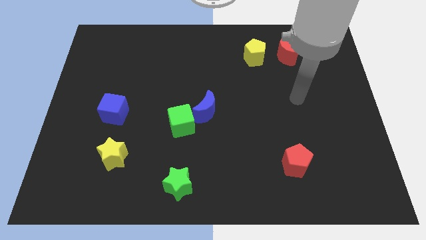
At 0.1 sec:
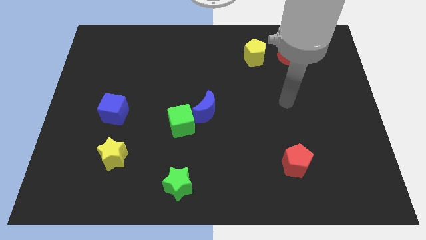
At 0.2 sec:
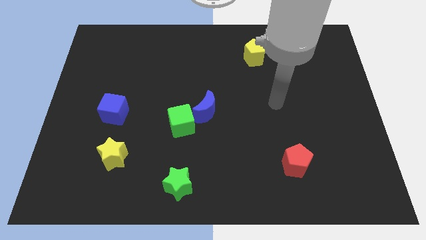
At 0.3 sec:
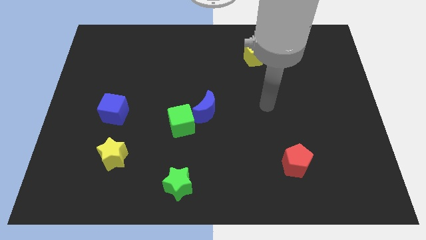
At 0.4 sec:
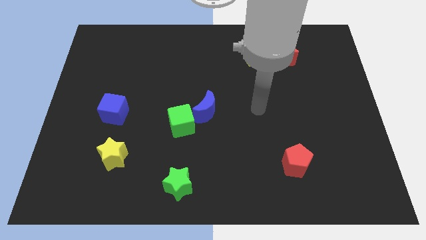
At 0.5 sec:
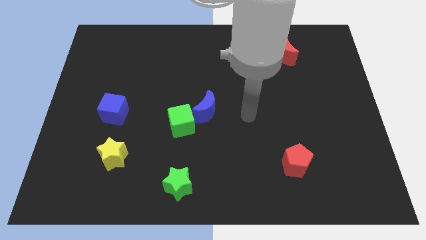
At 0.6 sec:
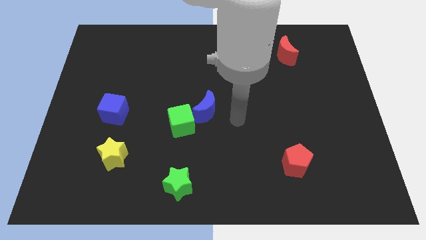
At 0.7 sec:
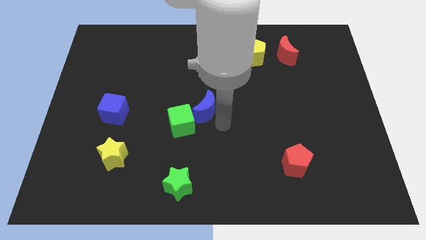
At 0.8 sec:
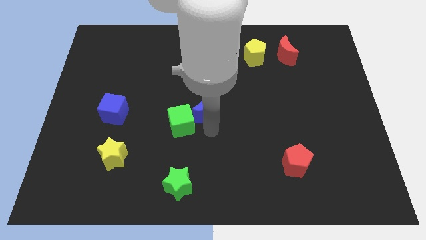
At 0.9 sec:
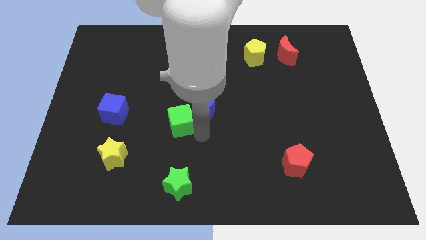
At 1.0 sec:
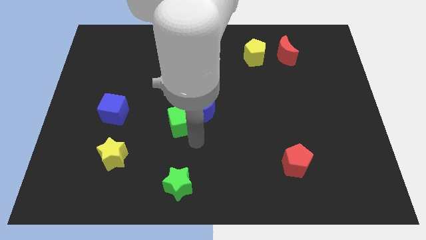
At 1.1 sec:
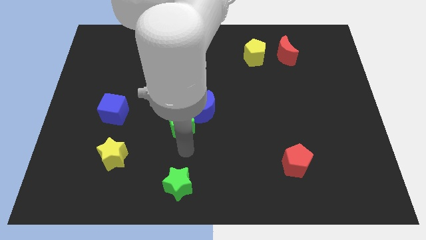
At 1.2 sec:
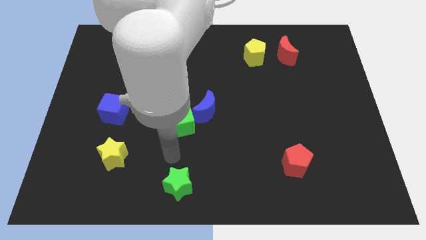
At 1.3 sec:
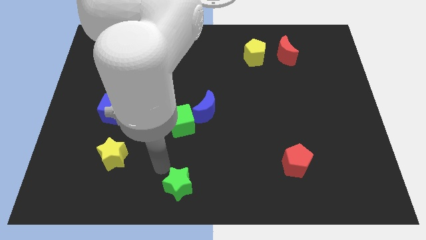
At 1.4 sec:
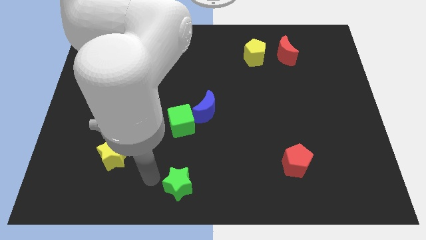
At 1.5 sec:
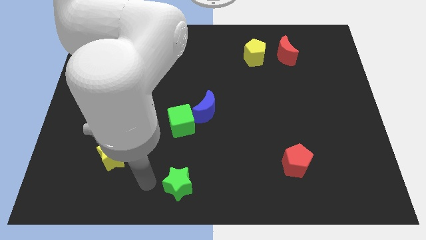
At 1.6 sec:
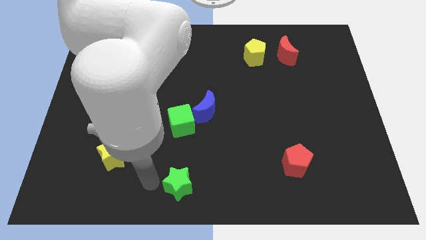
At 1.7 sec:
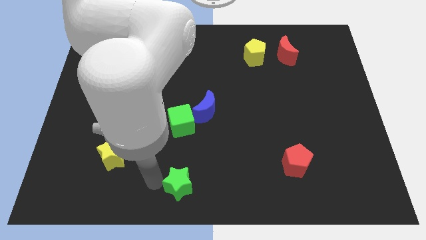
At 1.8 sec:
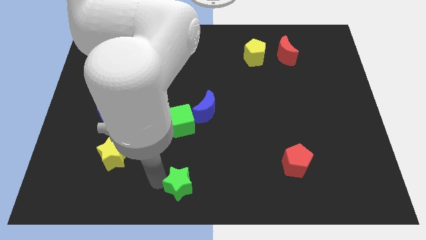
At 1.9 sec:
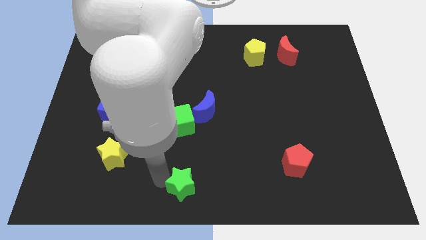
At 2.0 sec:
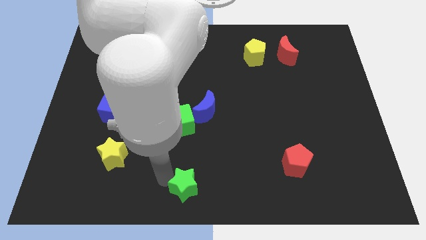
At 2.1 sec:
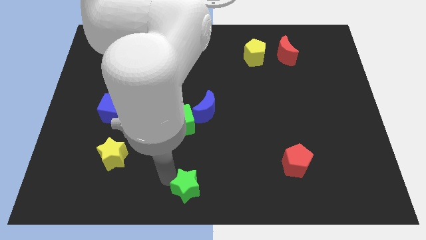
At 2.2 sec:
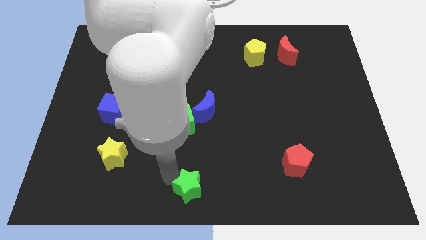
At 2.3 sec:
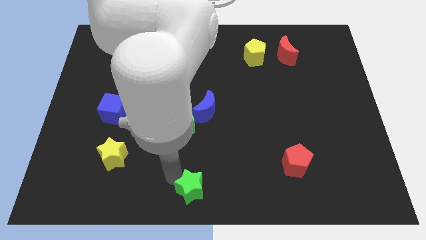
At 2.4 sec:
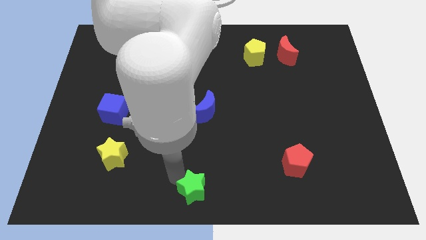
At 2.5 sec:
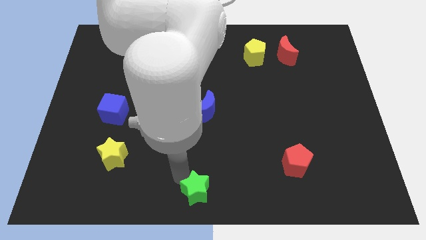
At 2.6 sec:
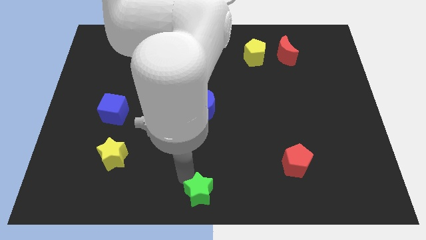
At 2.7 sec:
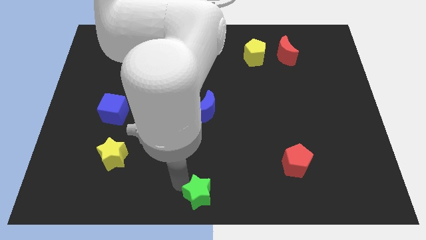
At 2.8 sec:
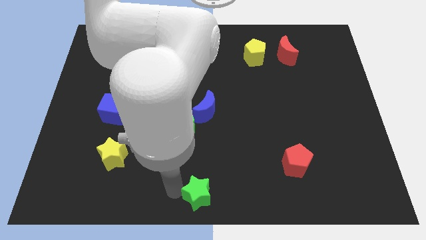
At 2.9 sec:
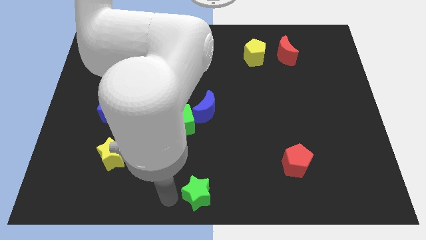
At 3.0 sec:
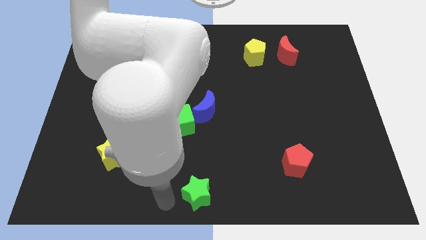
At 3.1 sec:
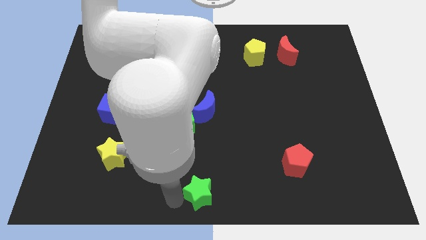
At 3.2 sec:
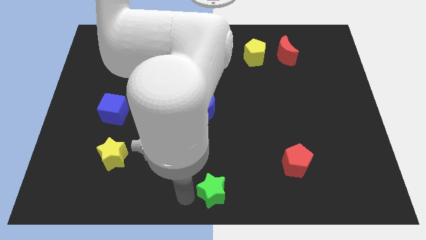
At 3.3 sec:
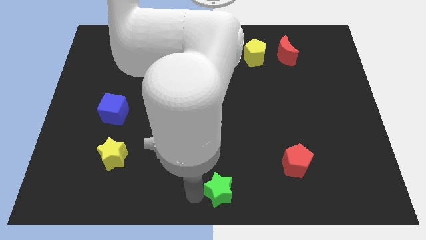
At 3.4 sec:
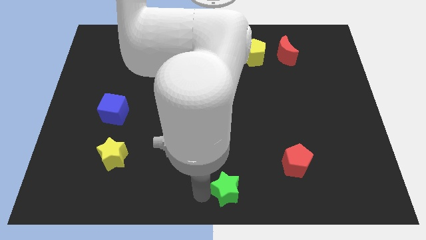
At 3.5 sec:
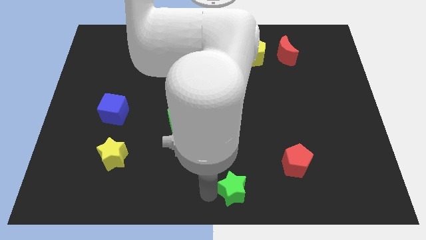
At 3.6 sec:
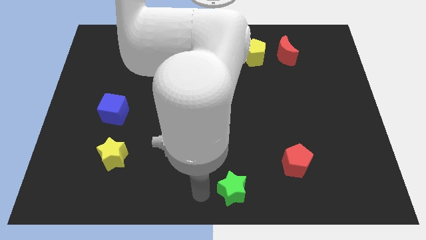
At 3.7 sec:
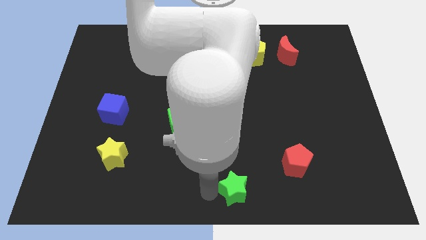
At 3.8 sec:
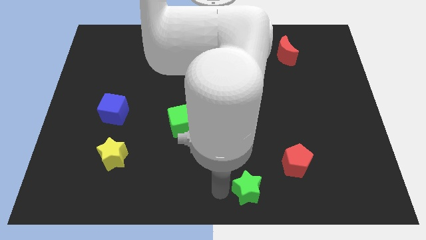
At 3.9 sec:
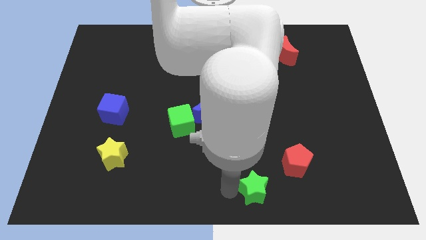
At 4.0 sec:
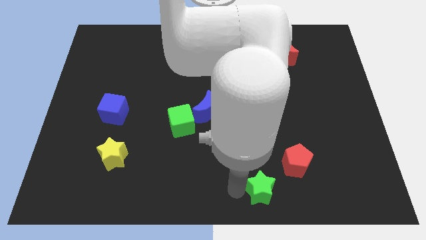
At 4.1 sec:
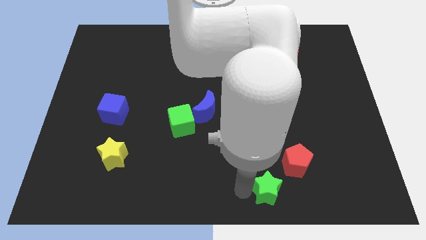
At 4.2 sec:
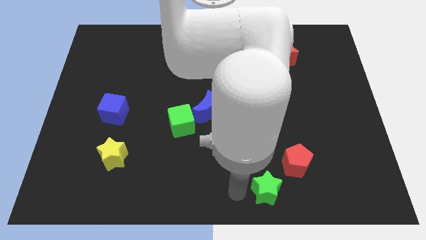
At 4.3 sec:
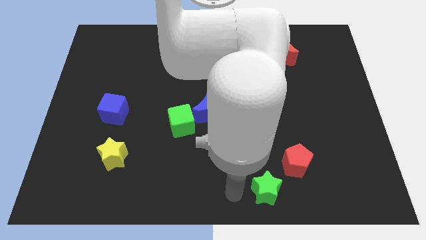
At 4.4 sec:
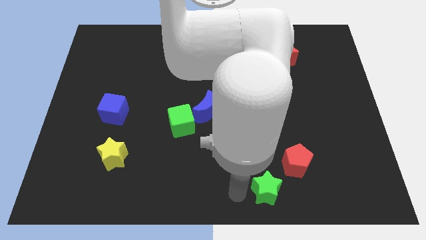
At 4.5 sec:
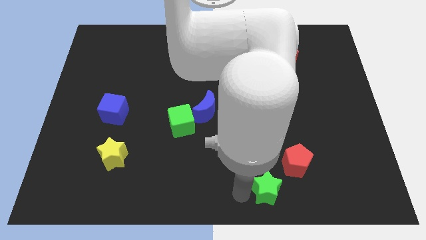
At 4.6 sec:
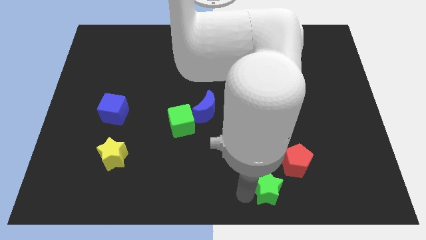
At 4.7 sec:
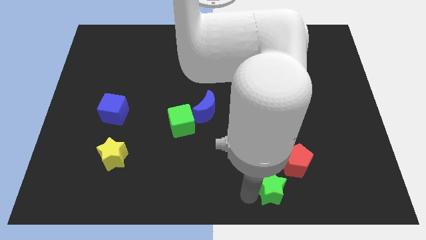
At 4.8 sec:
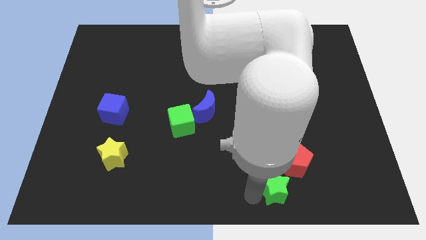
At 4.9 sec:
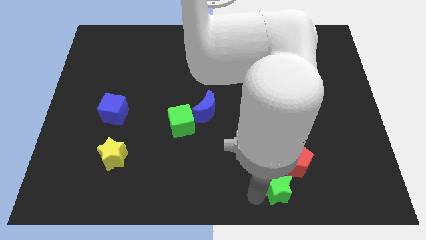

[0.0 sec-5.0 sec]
push the green star right

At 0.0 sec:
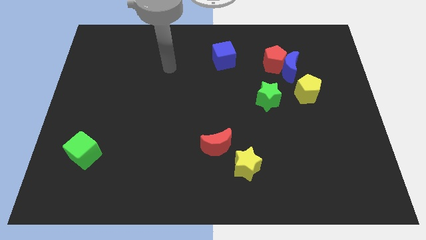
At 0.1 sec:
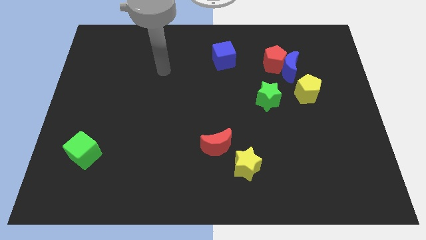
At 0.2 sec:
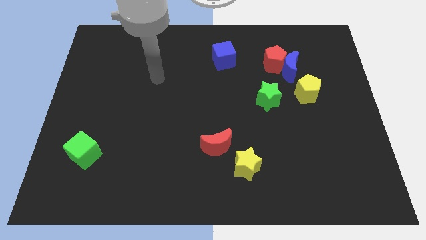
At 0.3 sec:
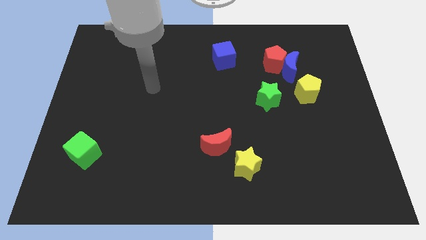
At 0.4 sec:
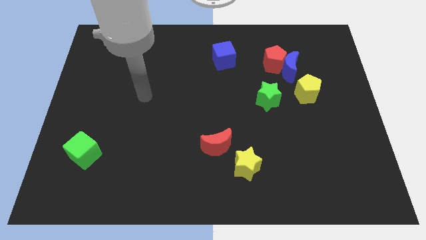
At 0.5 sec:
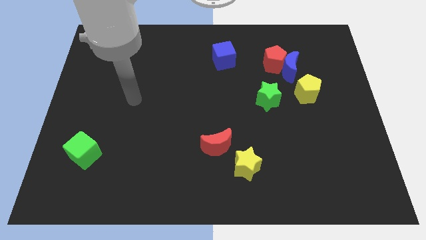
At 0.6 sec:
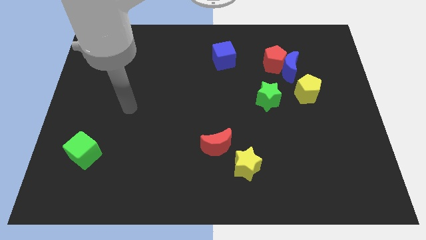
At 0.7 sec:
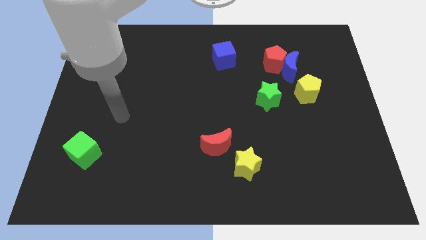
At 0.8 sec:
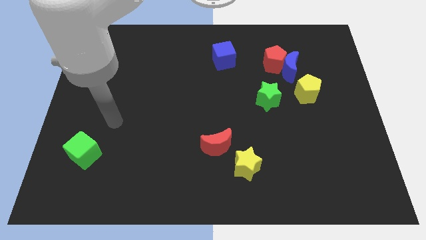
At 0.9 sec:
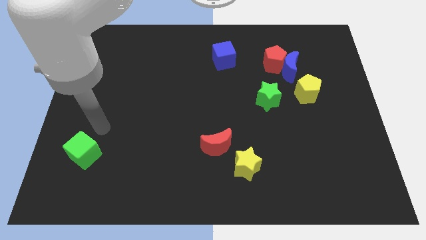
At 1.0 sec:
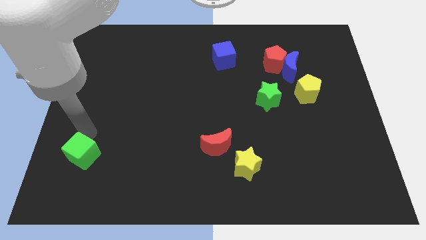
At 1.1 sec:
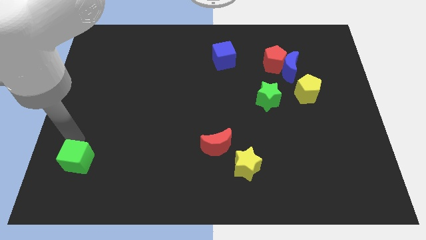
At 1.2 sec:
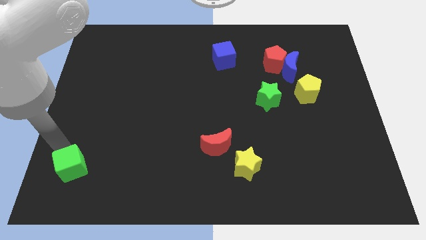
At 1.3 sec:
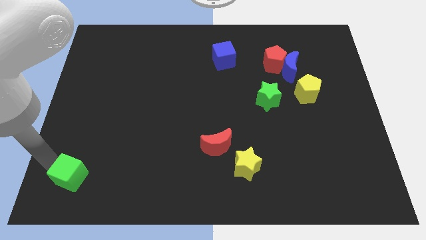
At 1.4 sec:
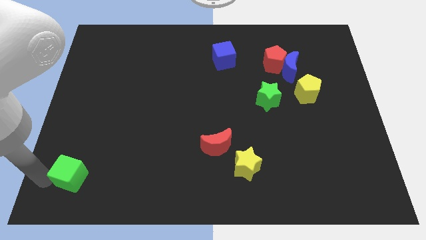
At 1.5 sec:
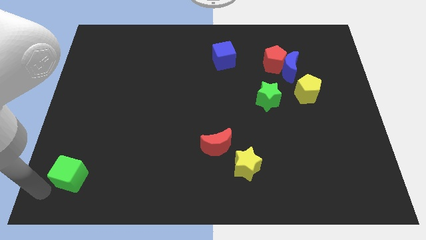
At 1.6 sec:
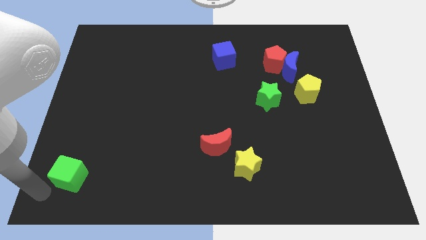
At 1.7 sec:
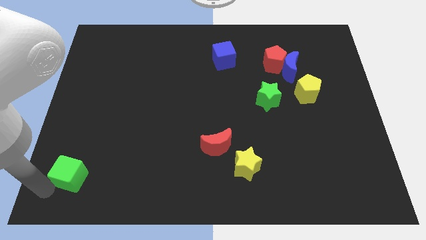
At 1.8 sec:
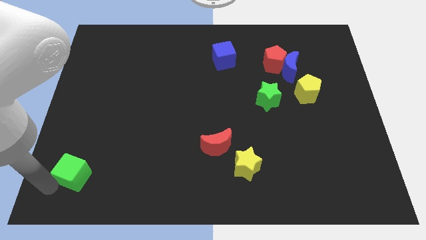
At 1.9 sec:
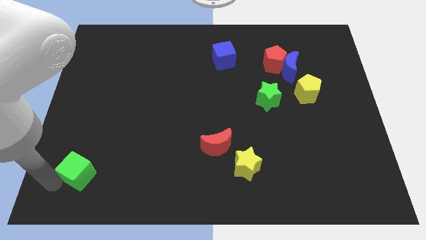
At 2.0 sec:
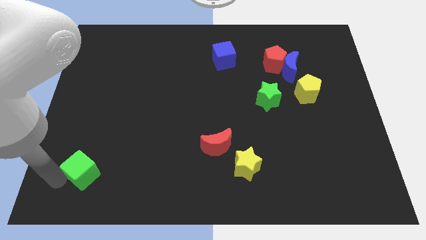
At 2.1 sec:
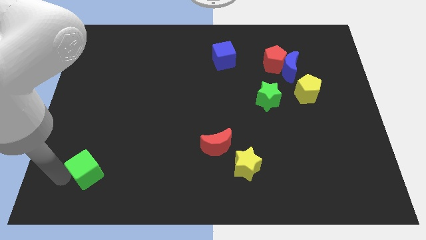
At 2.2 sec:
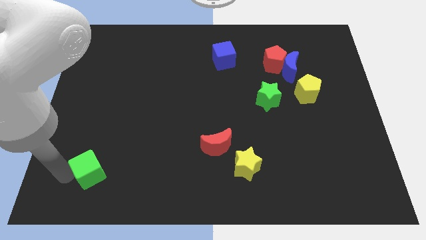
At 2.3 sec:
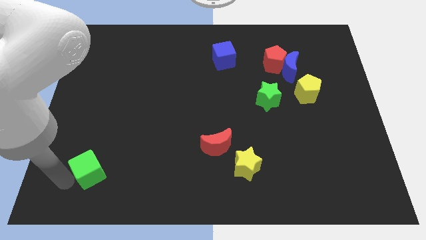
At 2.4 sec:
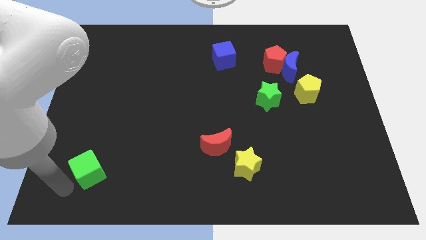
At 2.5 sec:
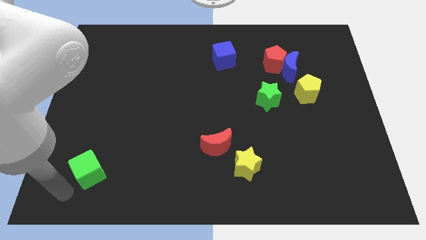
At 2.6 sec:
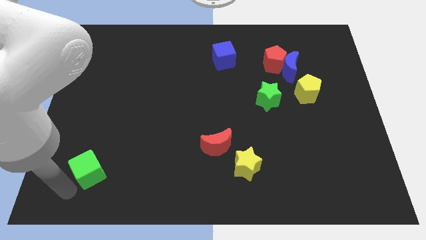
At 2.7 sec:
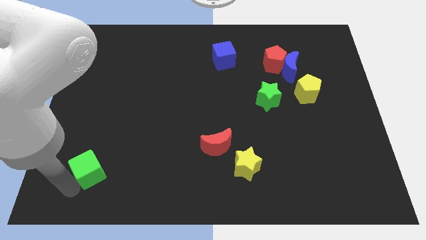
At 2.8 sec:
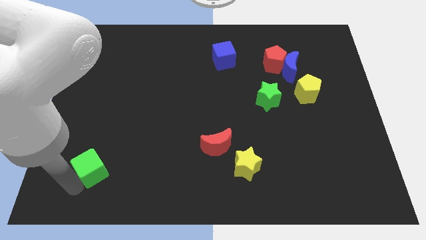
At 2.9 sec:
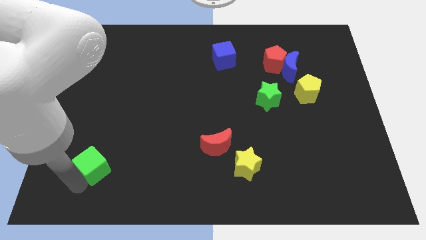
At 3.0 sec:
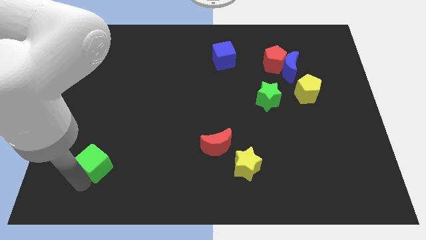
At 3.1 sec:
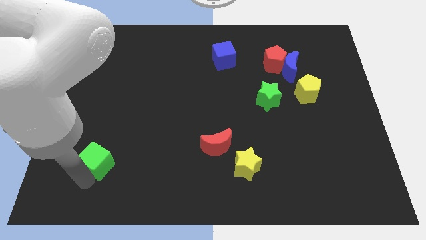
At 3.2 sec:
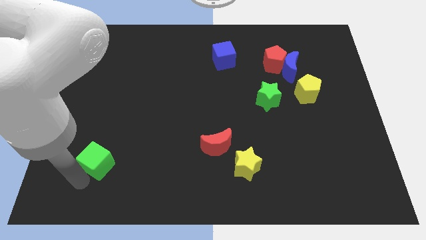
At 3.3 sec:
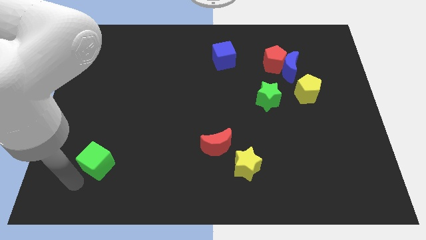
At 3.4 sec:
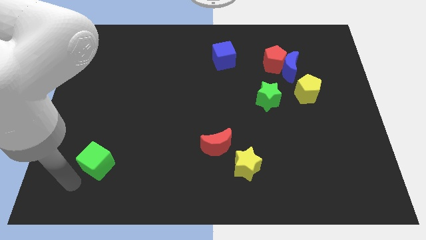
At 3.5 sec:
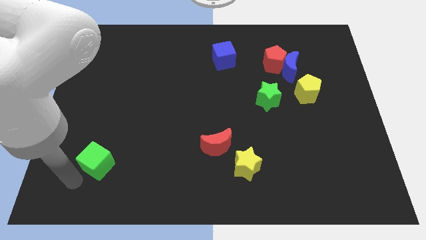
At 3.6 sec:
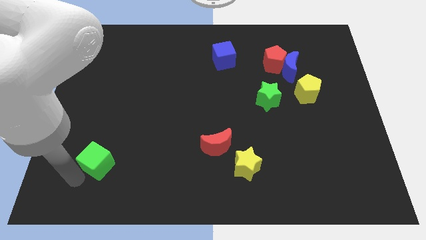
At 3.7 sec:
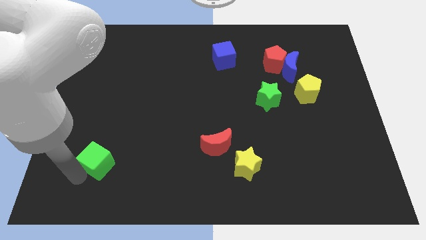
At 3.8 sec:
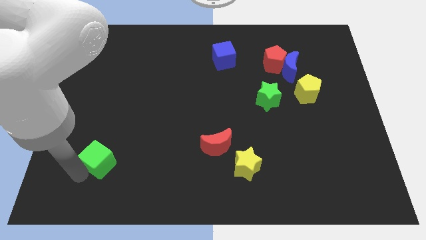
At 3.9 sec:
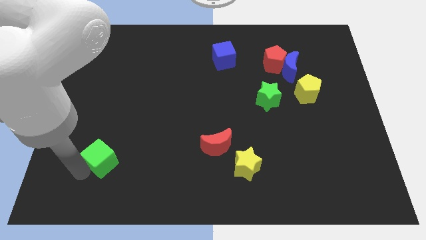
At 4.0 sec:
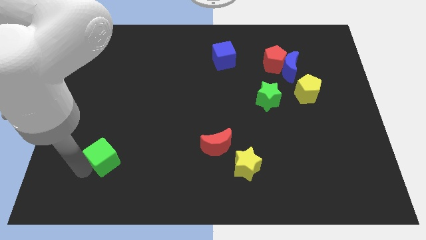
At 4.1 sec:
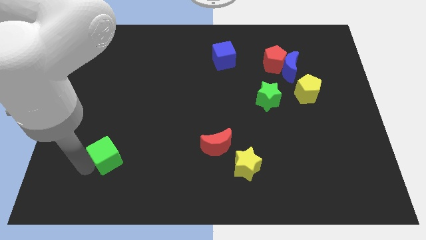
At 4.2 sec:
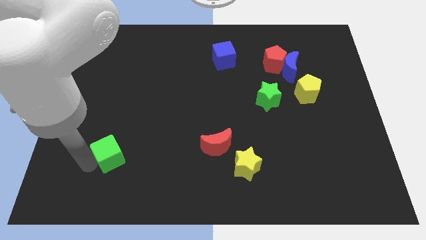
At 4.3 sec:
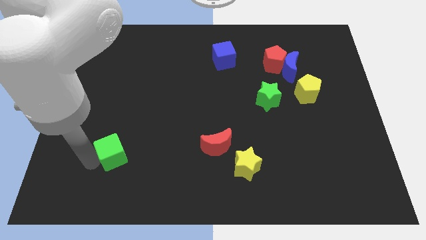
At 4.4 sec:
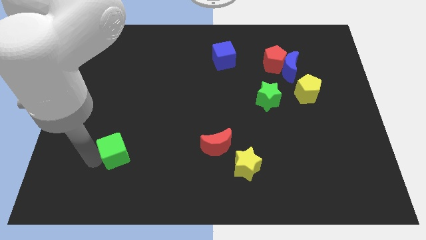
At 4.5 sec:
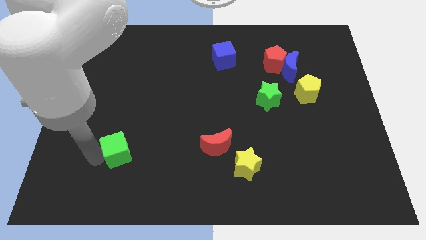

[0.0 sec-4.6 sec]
move the green cube right a little bit
